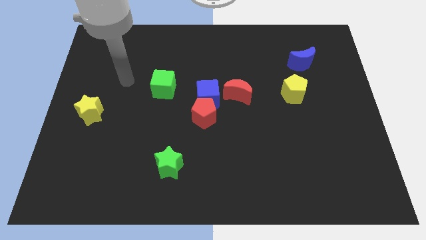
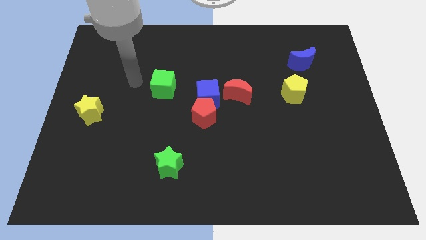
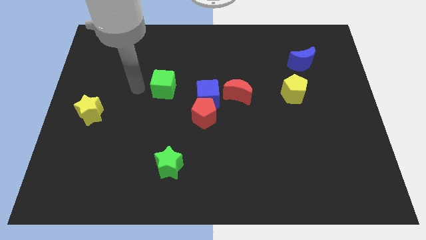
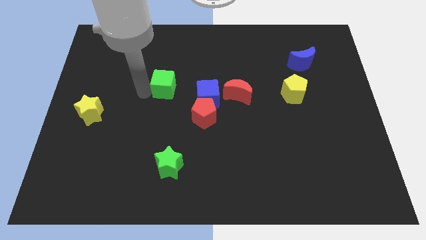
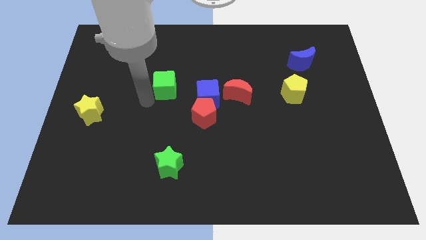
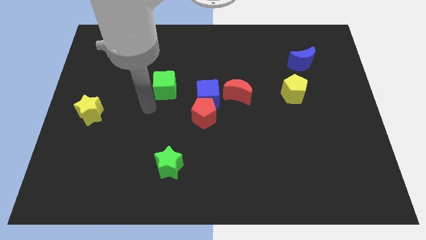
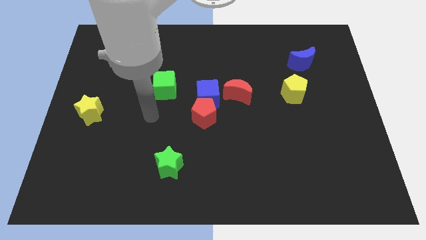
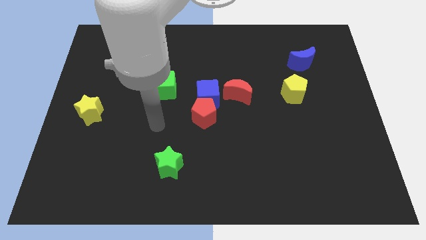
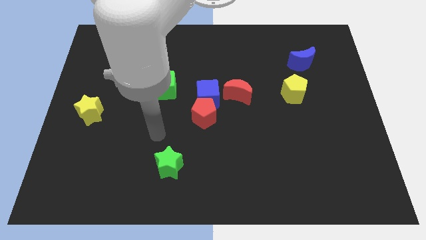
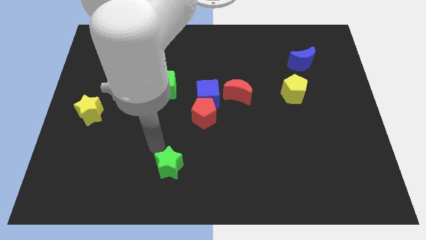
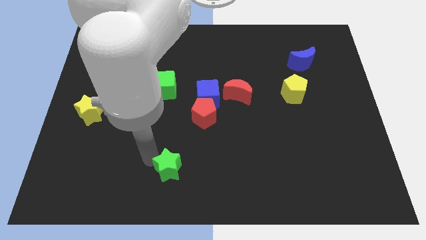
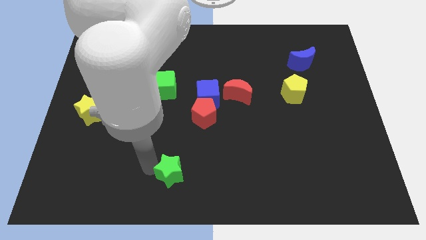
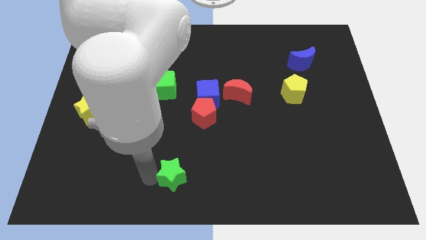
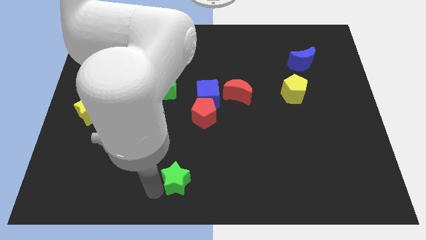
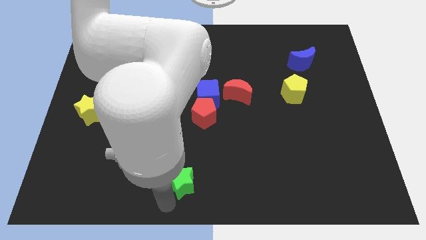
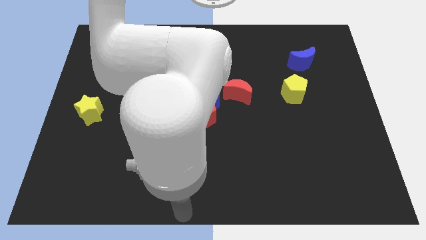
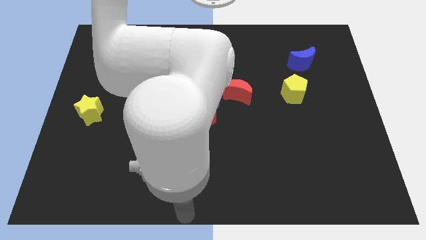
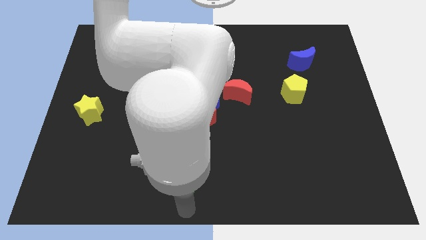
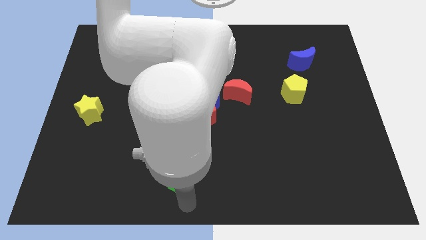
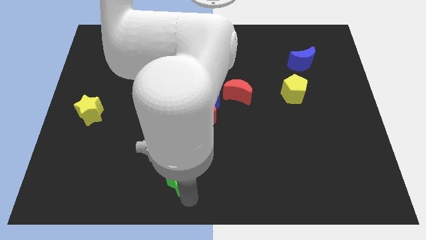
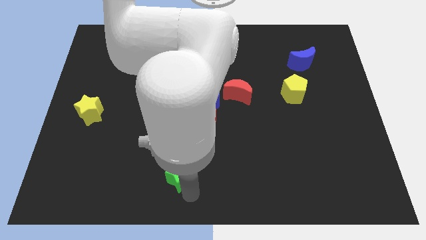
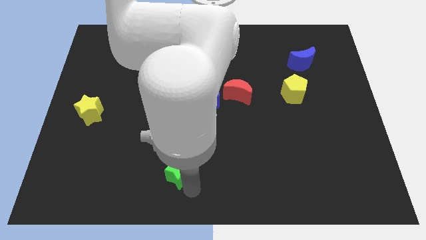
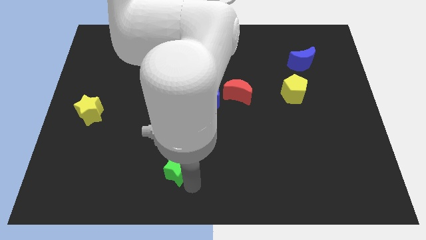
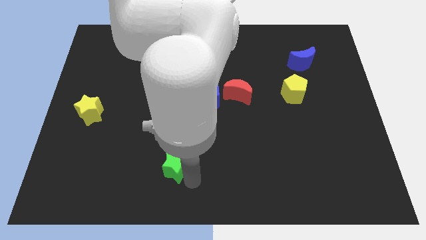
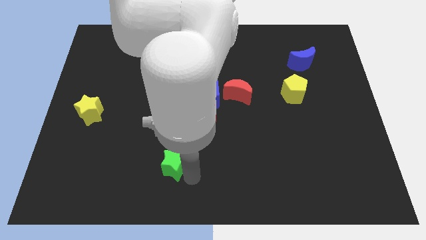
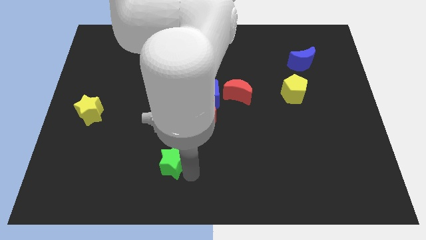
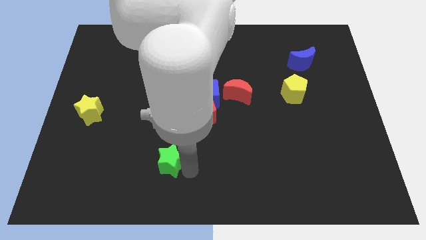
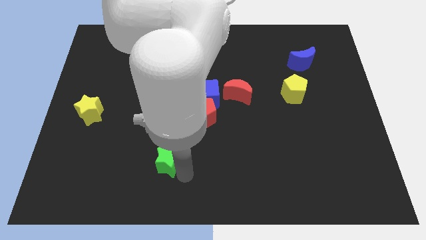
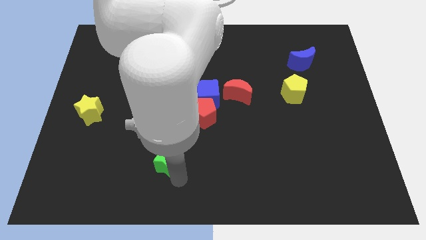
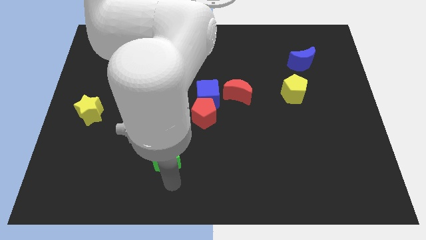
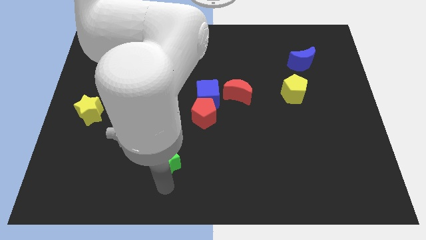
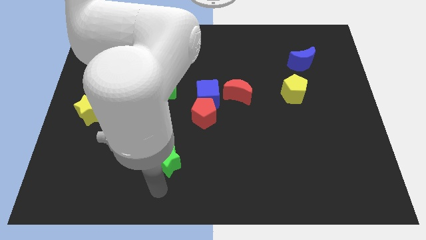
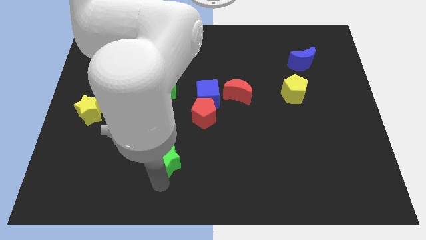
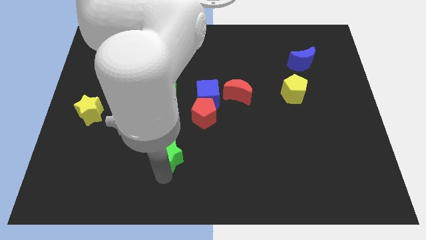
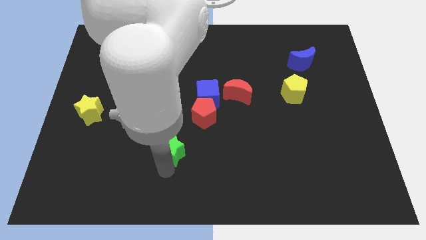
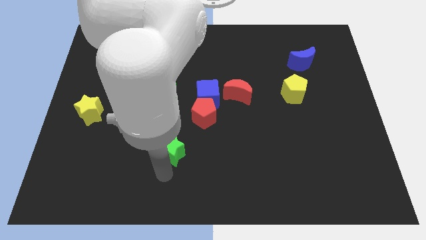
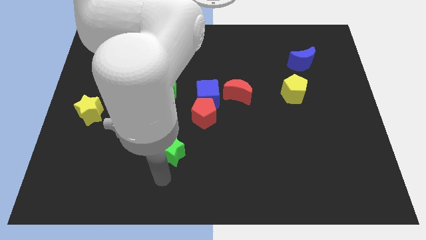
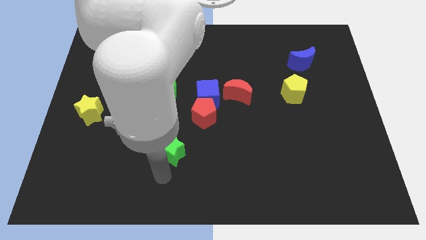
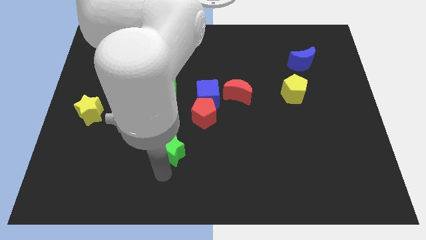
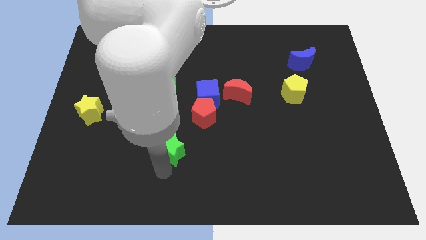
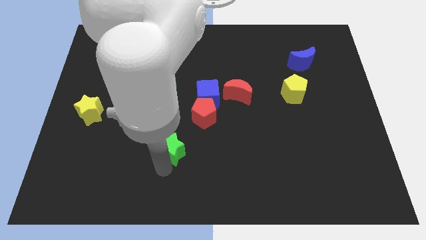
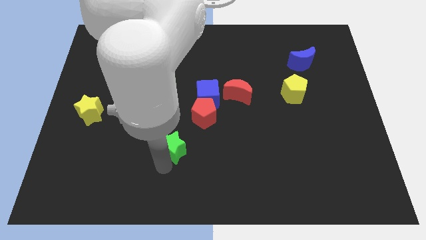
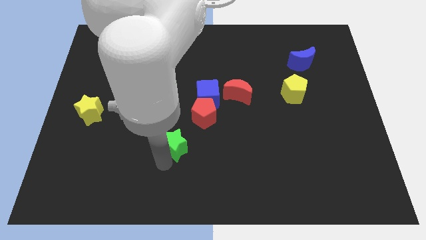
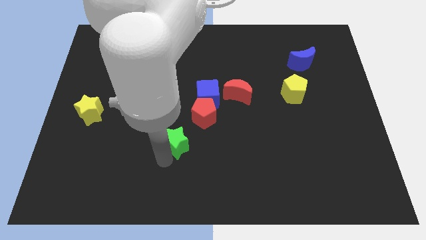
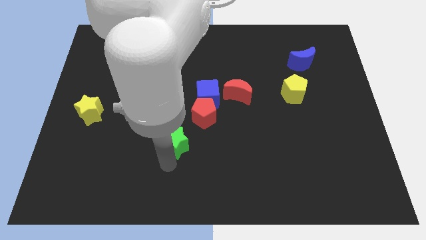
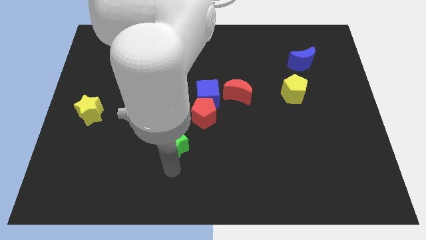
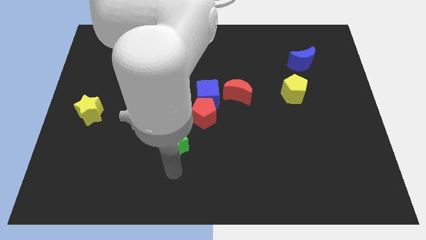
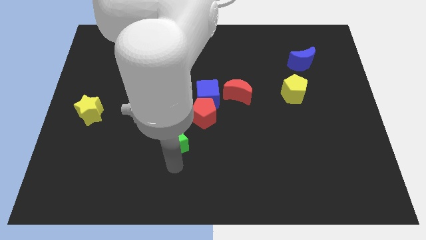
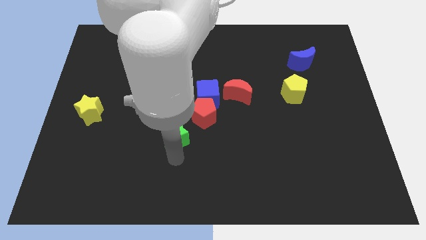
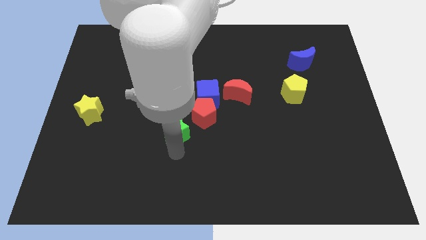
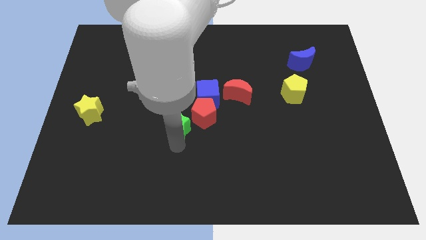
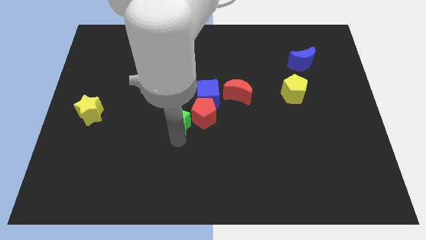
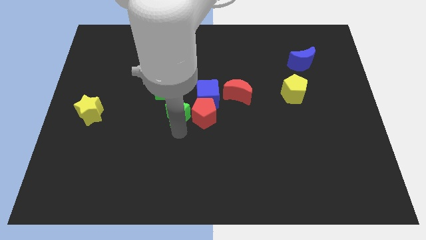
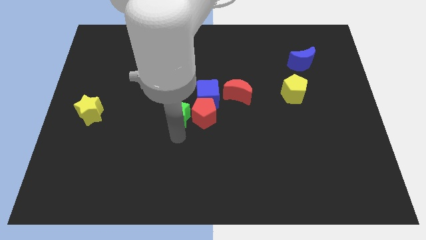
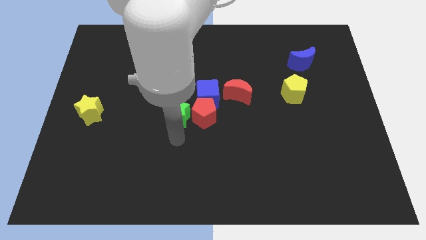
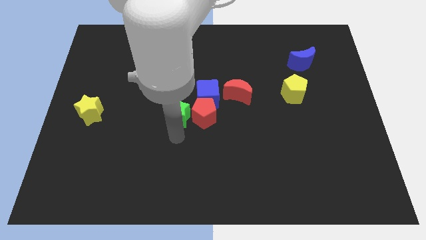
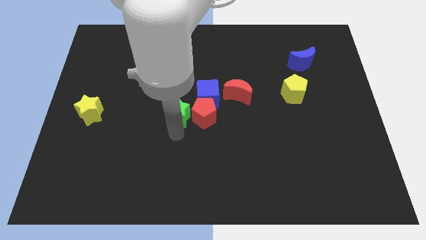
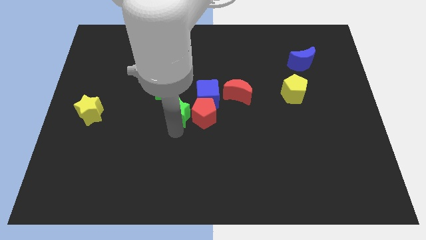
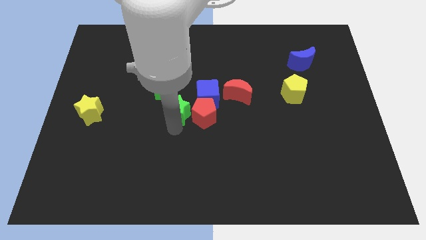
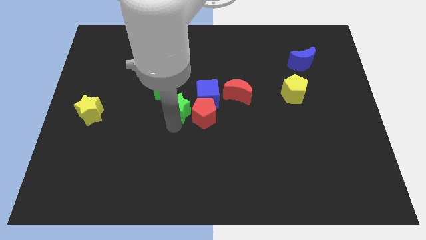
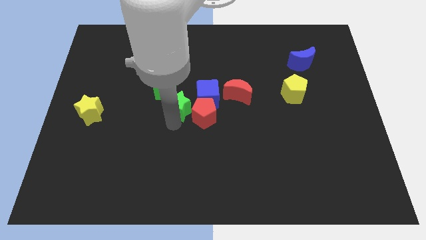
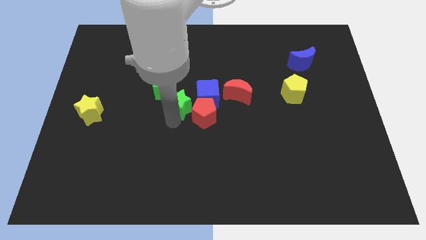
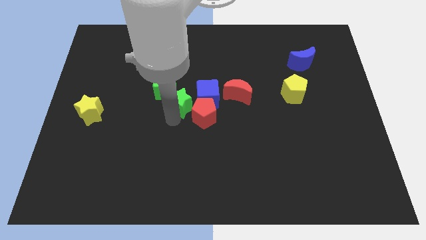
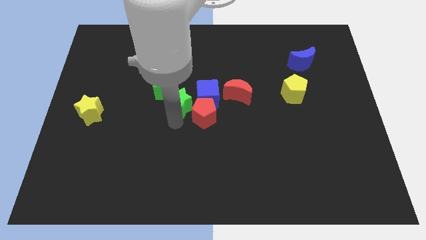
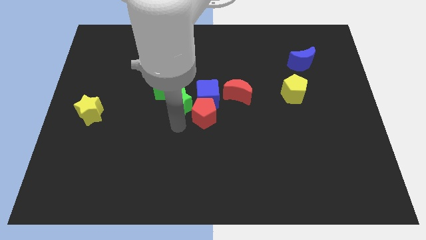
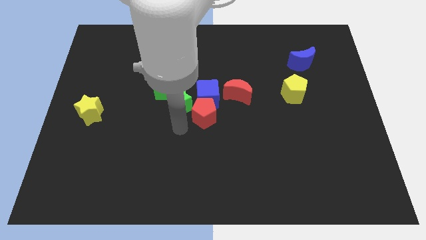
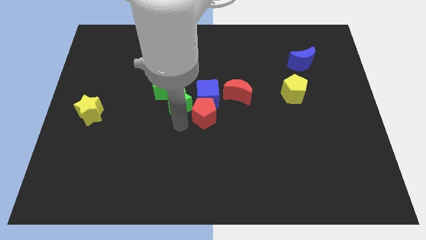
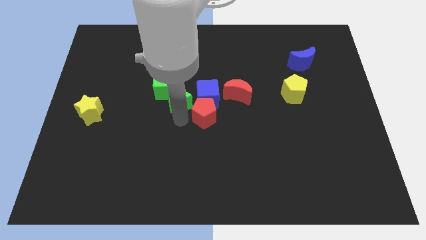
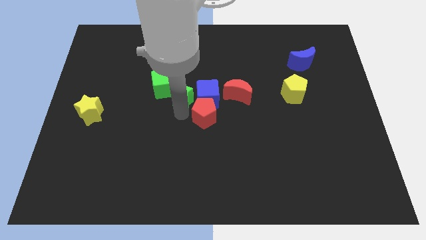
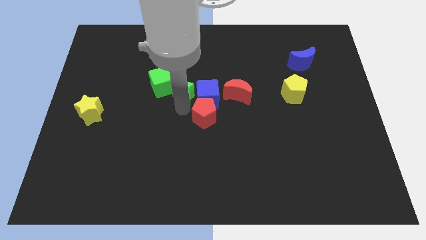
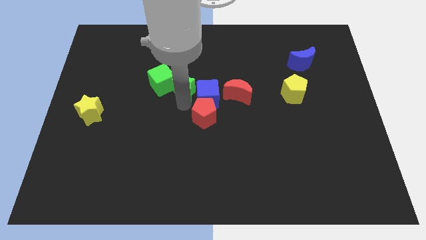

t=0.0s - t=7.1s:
move the green star upwards

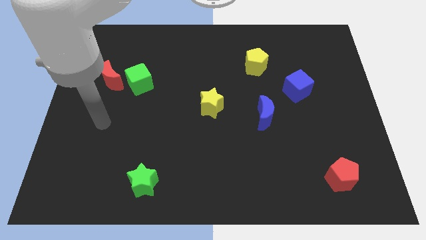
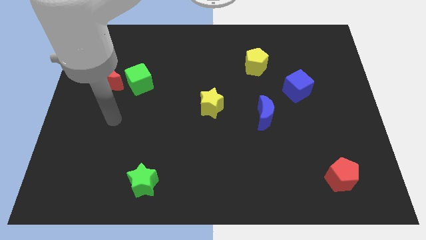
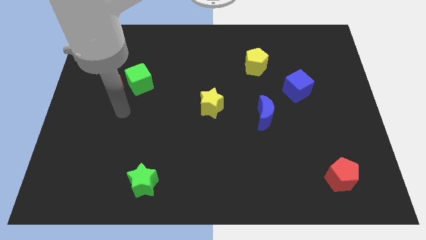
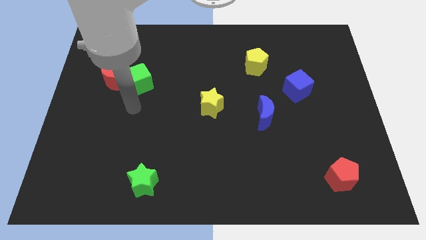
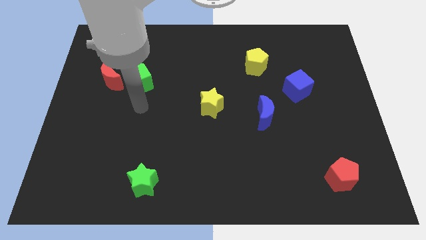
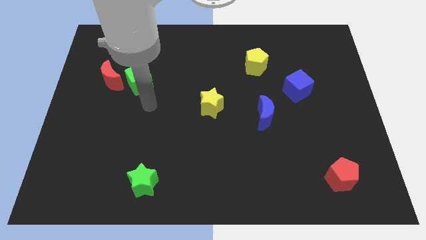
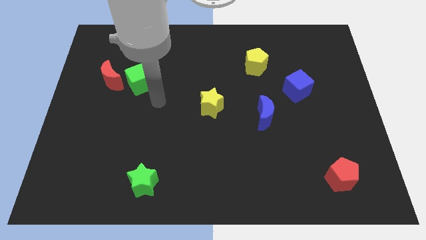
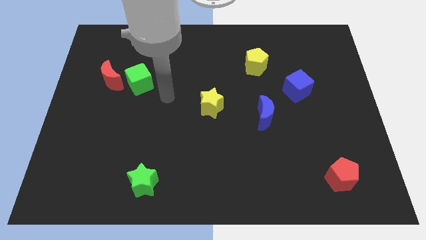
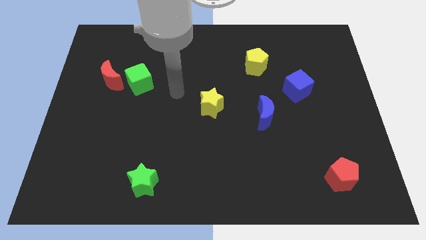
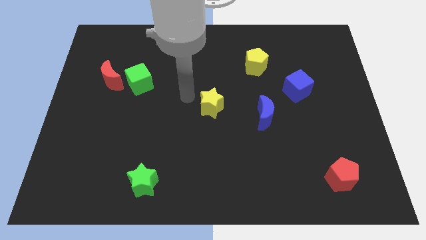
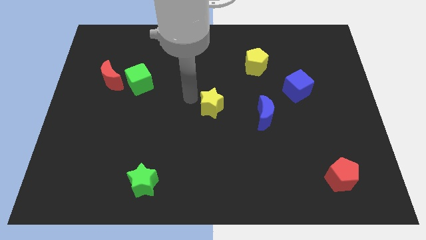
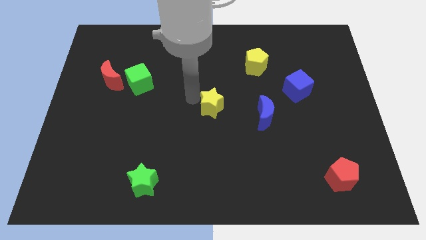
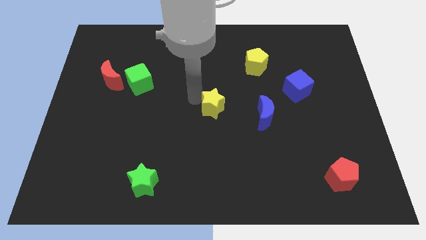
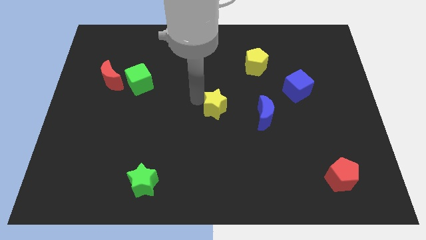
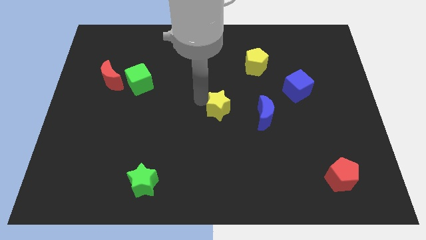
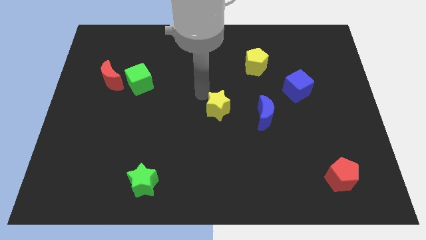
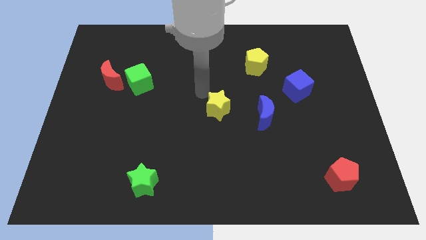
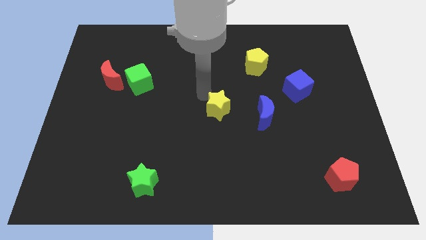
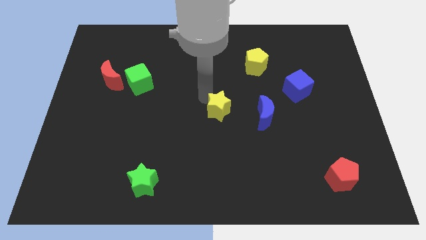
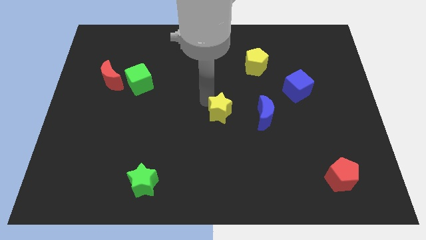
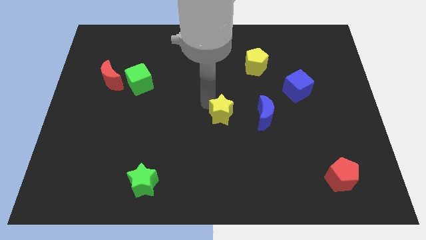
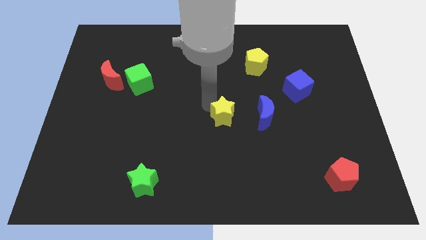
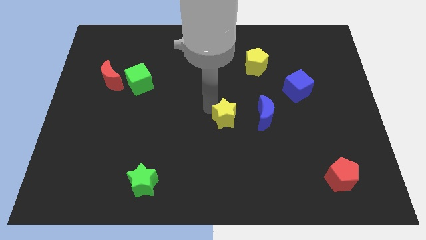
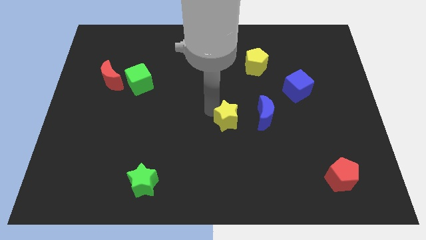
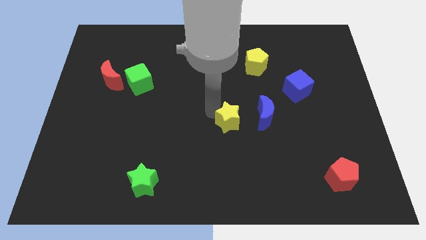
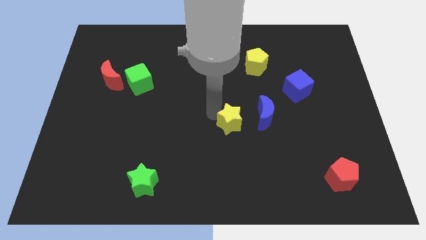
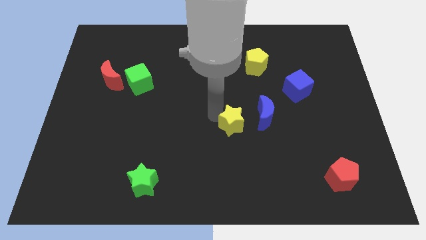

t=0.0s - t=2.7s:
slightly push the yellow star downwards and then right
